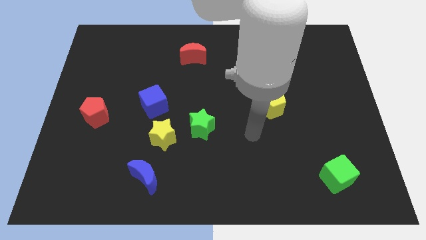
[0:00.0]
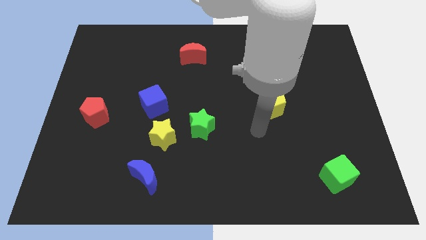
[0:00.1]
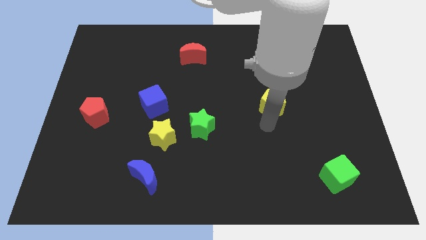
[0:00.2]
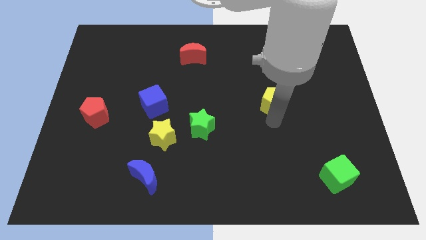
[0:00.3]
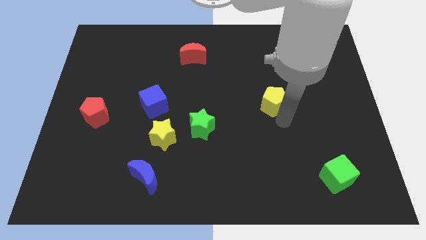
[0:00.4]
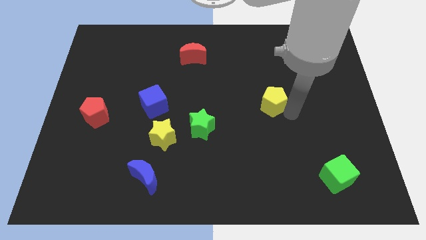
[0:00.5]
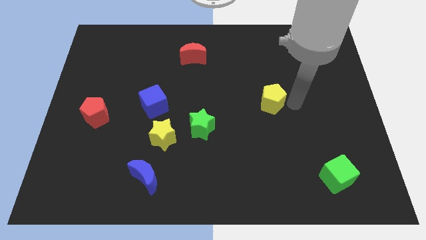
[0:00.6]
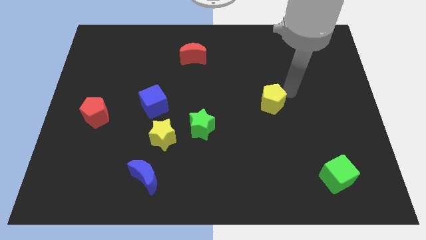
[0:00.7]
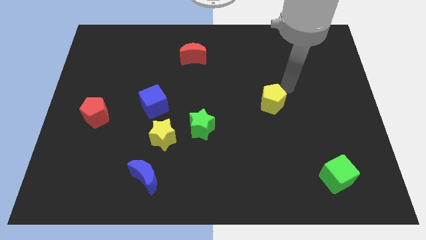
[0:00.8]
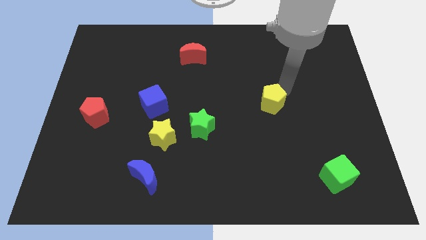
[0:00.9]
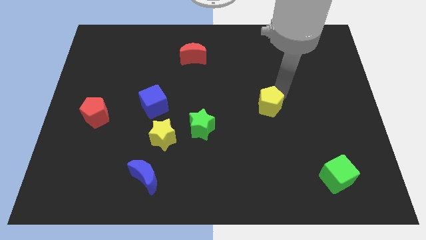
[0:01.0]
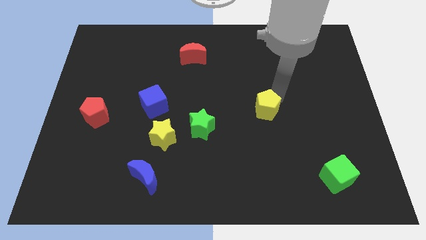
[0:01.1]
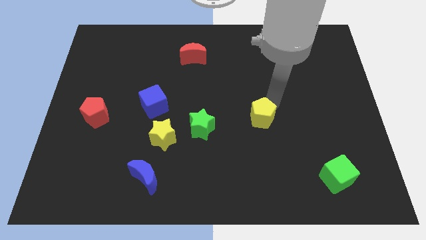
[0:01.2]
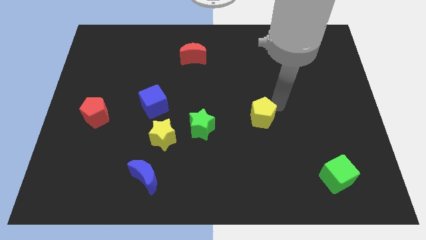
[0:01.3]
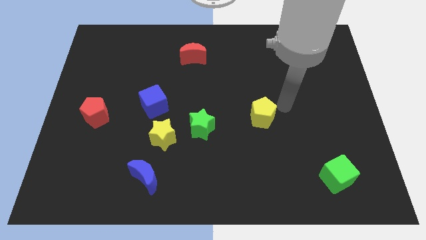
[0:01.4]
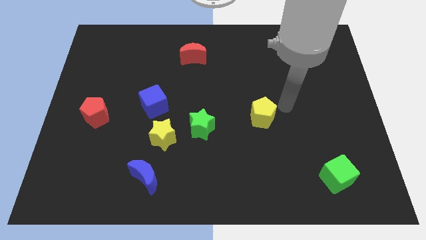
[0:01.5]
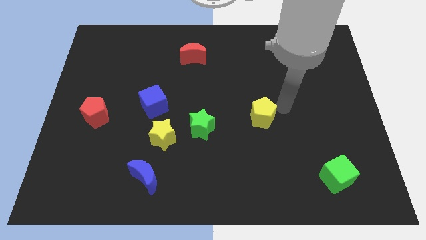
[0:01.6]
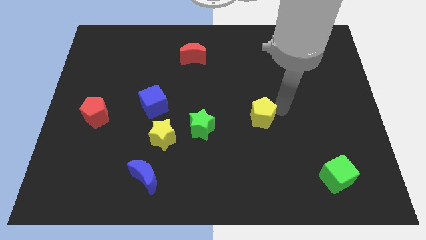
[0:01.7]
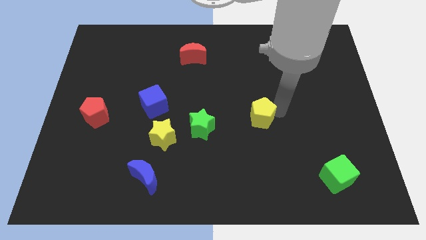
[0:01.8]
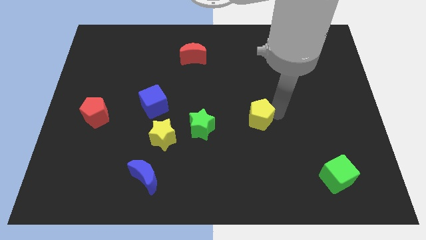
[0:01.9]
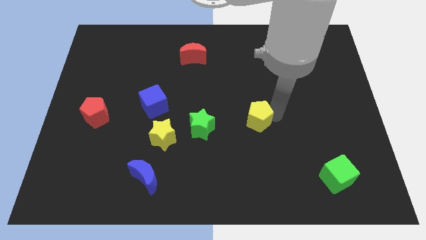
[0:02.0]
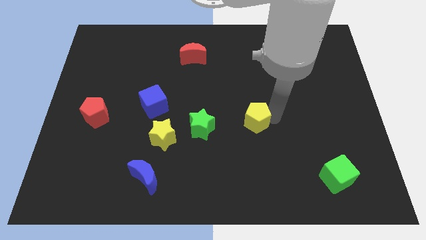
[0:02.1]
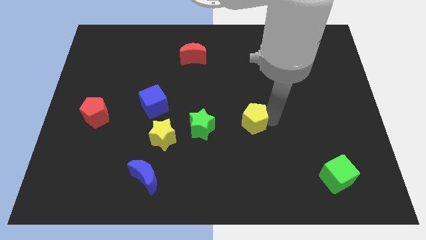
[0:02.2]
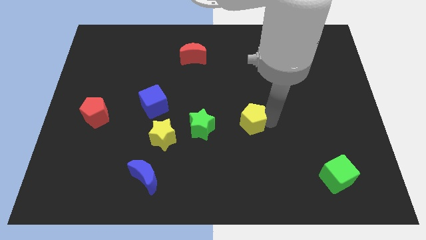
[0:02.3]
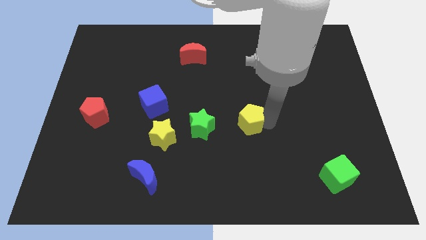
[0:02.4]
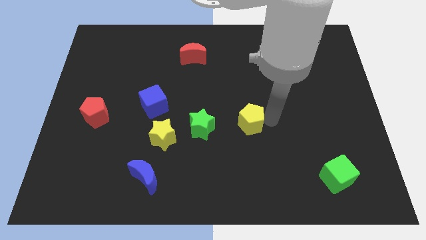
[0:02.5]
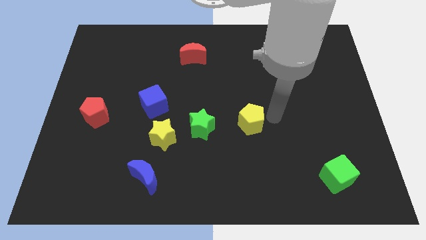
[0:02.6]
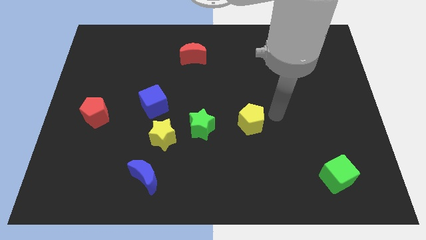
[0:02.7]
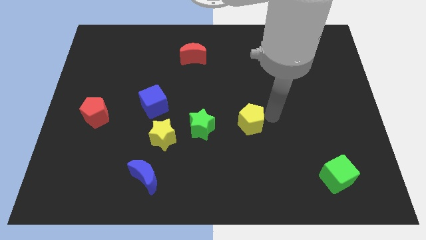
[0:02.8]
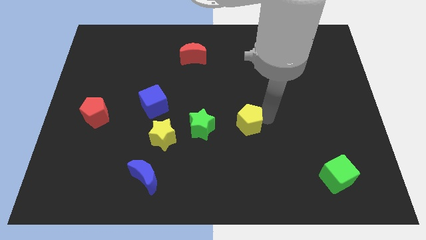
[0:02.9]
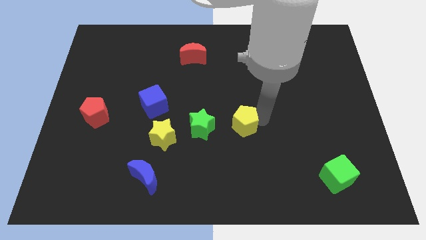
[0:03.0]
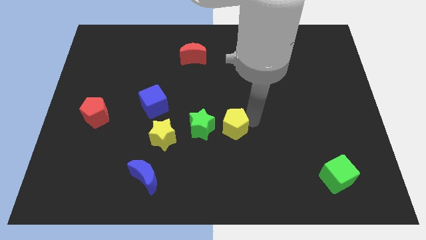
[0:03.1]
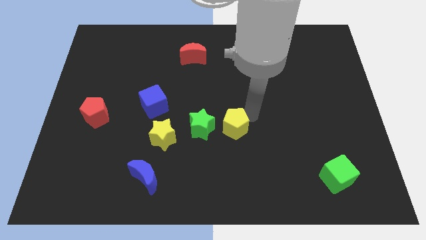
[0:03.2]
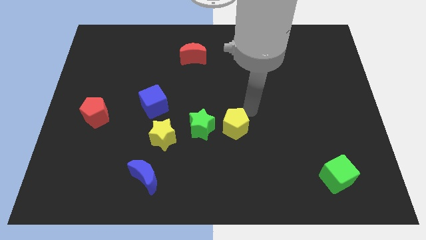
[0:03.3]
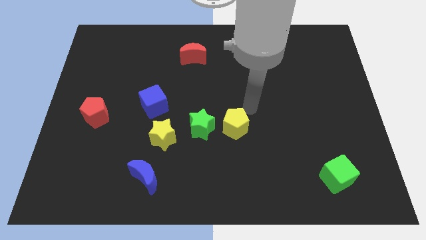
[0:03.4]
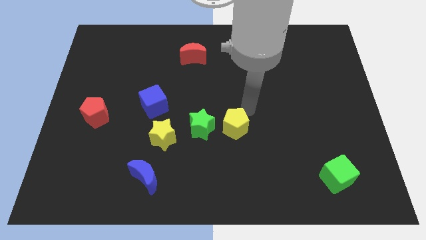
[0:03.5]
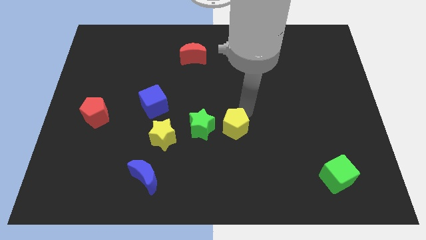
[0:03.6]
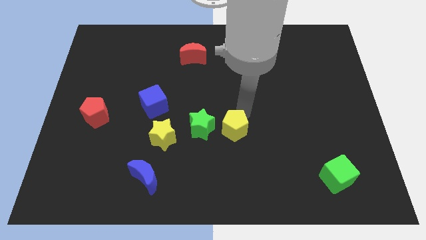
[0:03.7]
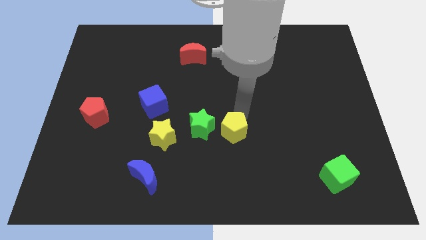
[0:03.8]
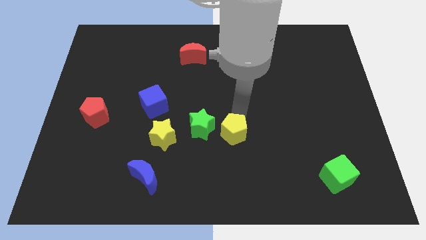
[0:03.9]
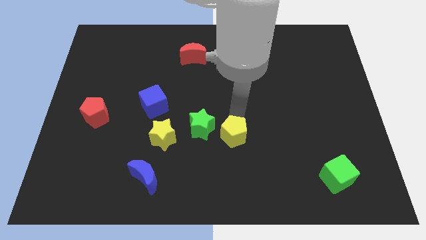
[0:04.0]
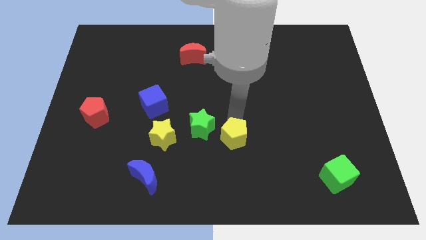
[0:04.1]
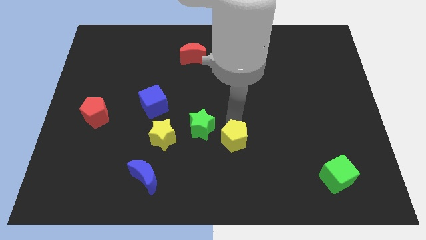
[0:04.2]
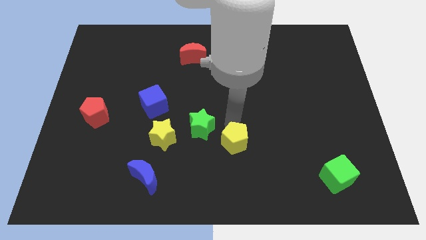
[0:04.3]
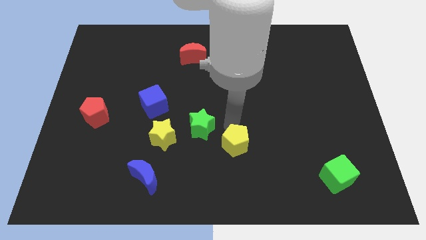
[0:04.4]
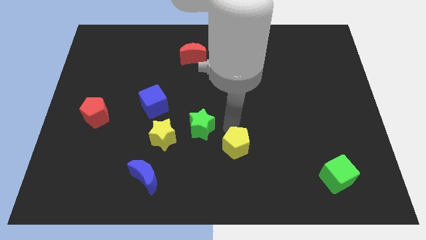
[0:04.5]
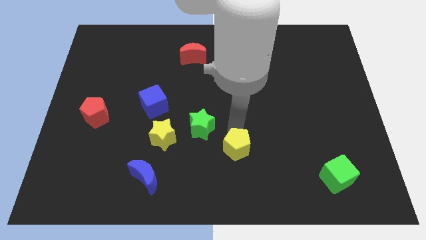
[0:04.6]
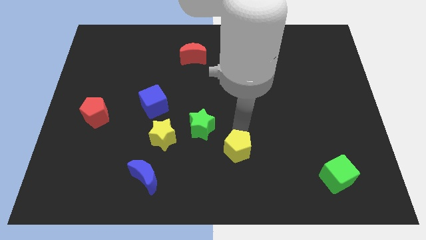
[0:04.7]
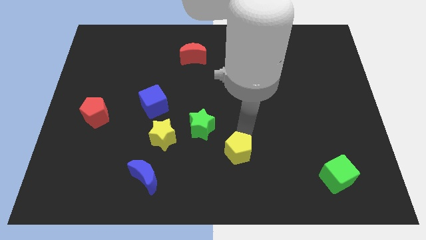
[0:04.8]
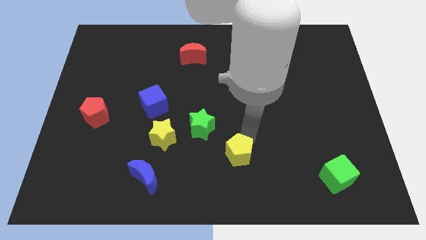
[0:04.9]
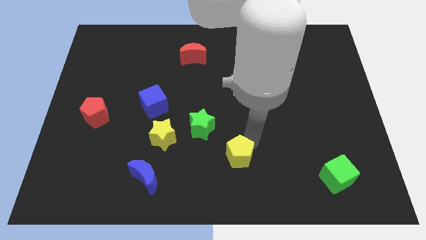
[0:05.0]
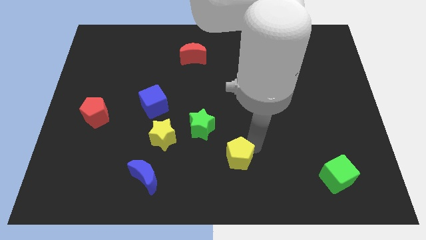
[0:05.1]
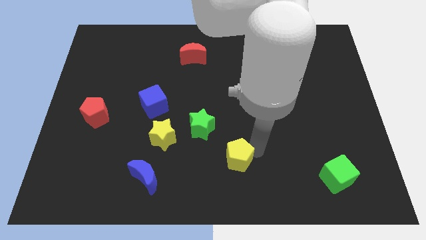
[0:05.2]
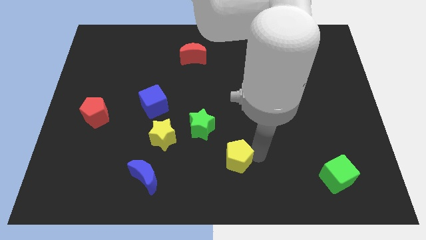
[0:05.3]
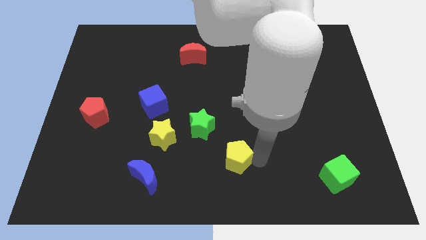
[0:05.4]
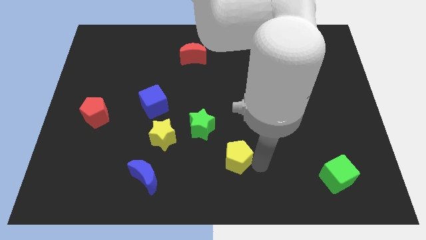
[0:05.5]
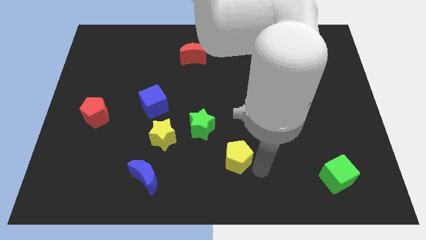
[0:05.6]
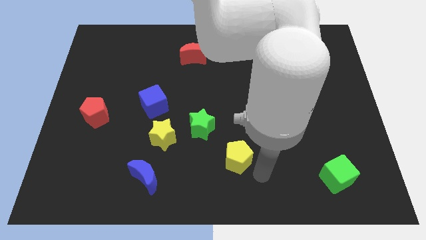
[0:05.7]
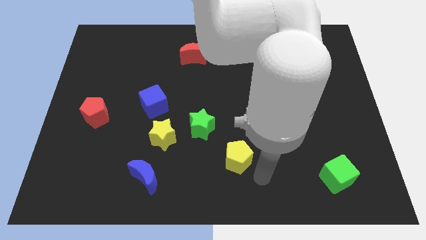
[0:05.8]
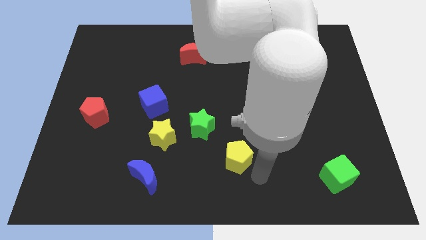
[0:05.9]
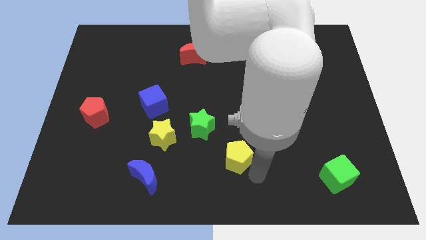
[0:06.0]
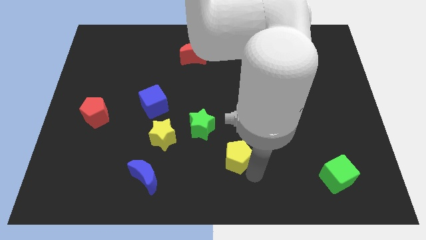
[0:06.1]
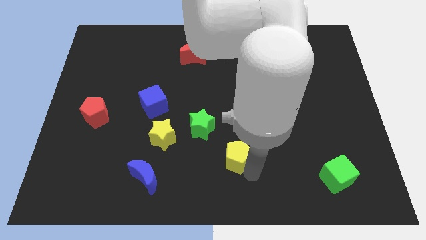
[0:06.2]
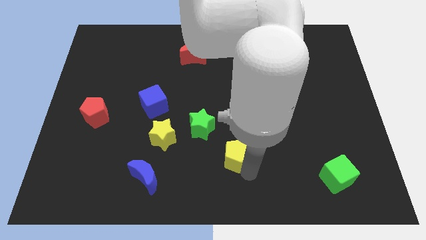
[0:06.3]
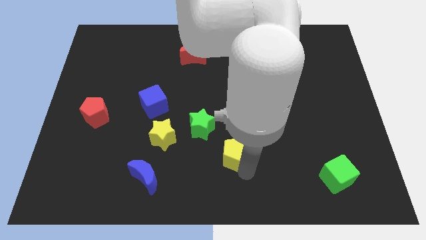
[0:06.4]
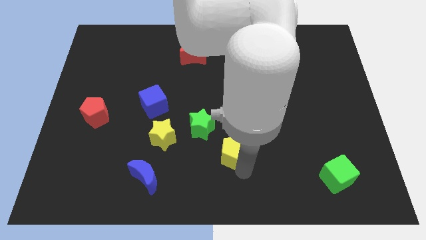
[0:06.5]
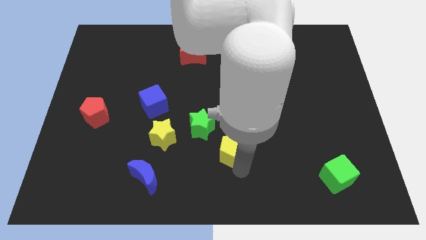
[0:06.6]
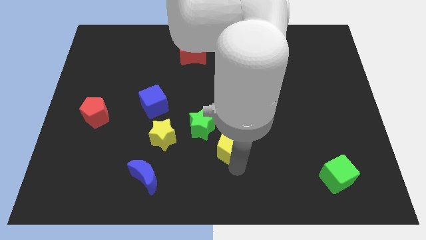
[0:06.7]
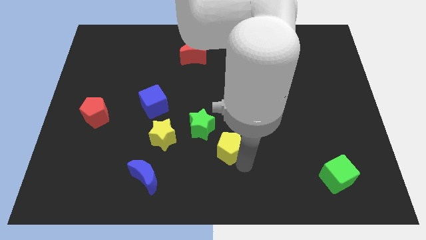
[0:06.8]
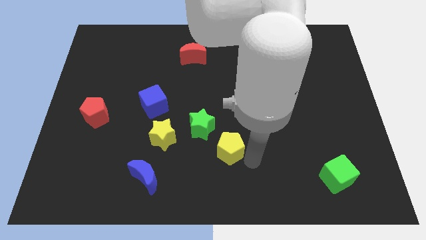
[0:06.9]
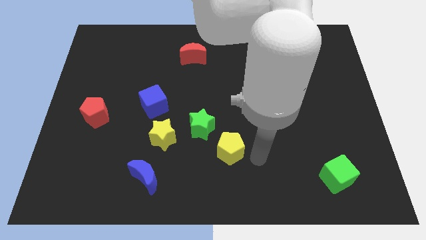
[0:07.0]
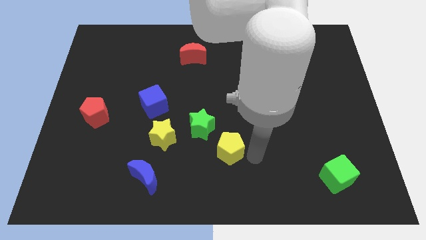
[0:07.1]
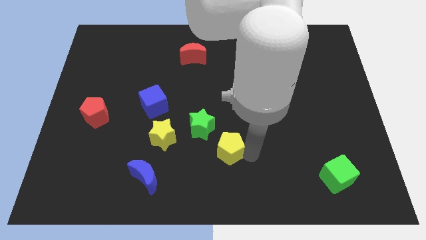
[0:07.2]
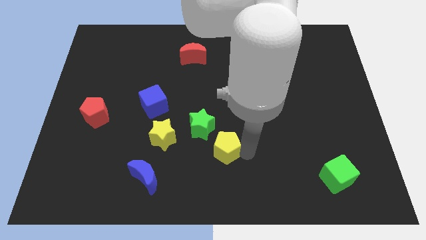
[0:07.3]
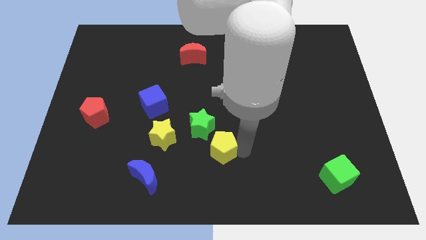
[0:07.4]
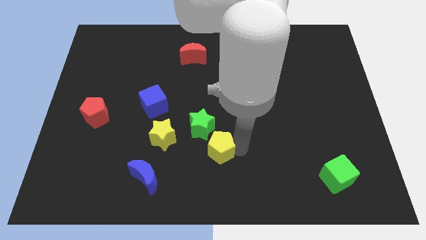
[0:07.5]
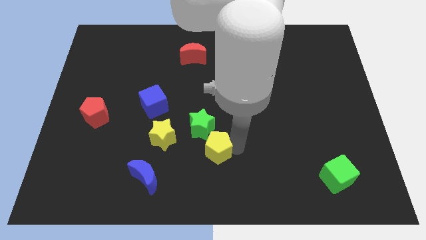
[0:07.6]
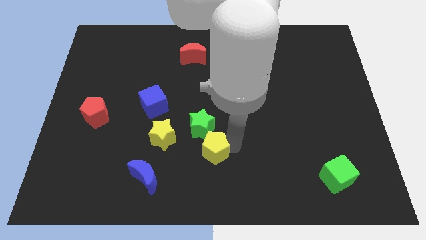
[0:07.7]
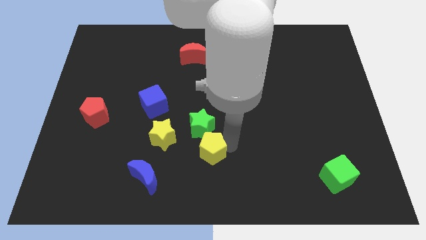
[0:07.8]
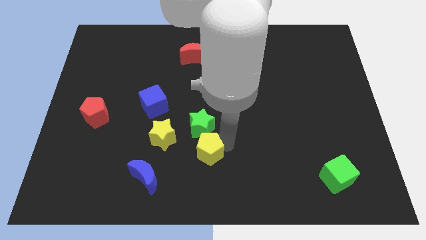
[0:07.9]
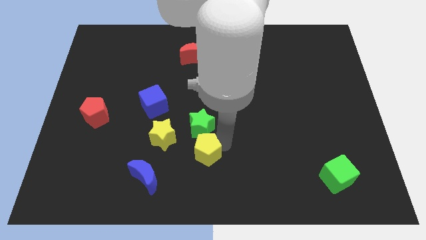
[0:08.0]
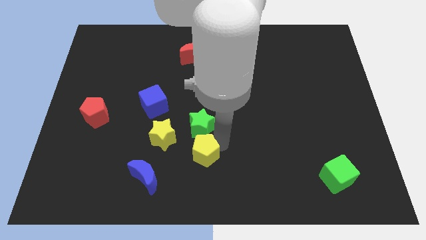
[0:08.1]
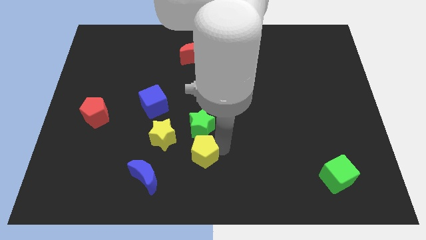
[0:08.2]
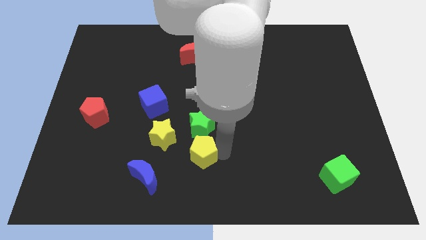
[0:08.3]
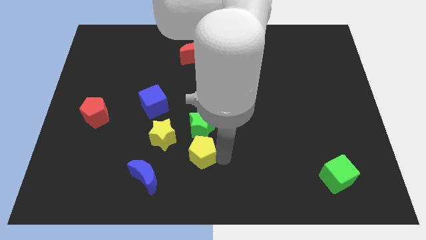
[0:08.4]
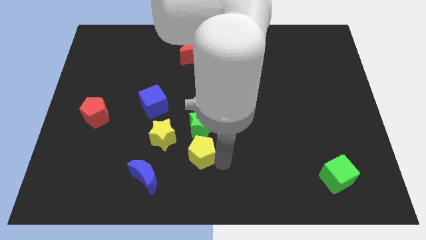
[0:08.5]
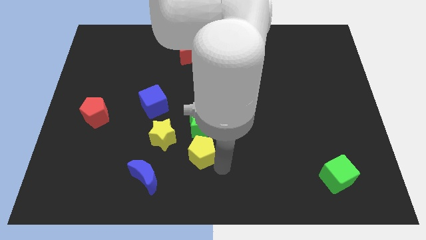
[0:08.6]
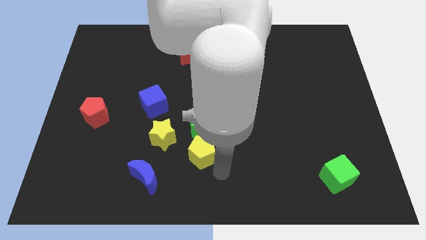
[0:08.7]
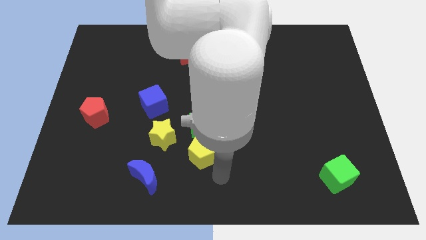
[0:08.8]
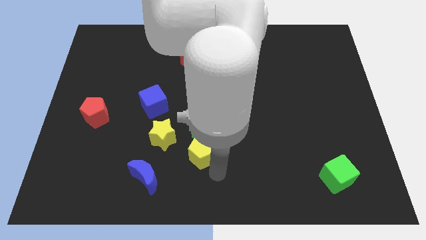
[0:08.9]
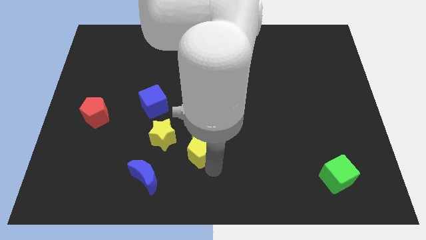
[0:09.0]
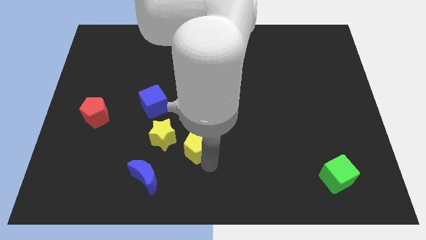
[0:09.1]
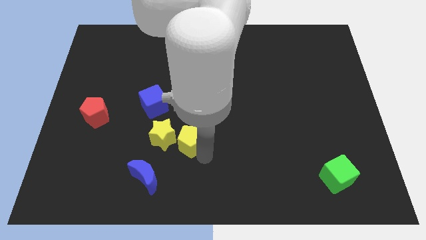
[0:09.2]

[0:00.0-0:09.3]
put the yellow pentagon next to the yellow star
